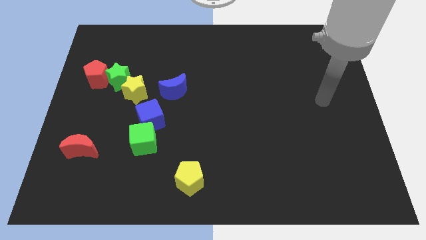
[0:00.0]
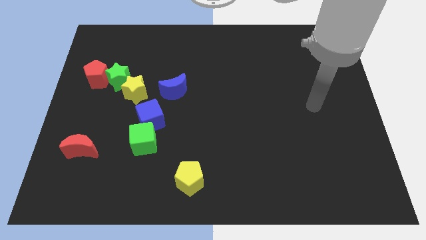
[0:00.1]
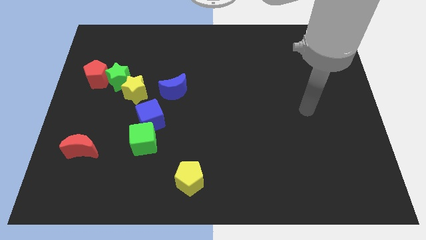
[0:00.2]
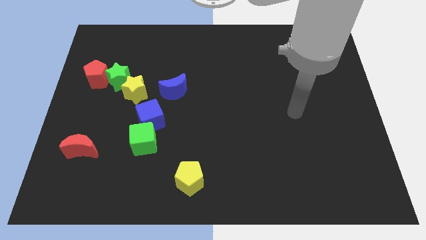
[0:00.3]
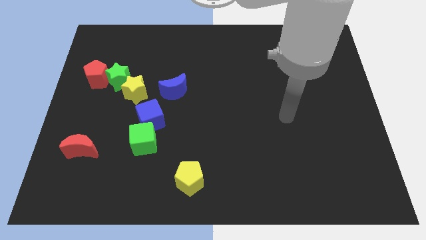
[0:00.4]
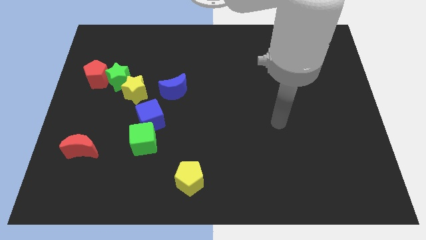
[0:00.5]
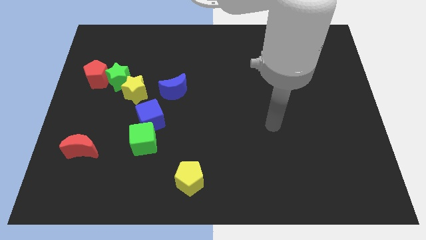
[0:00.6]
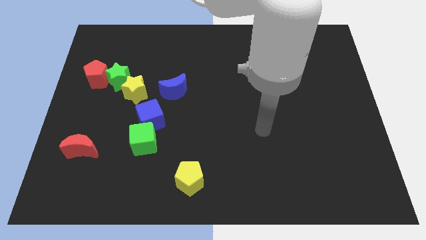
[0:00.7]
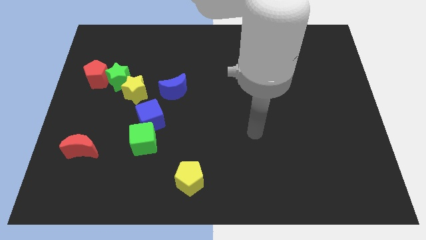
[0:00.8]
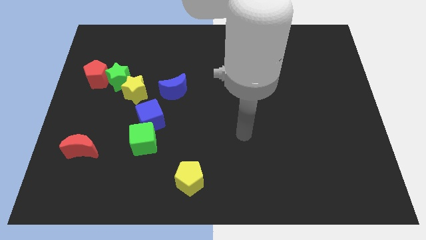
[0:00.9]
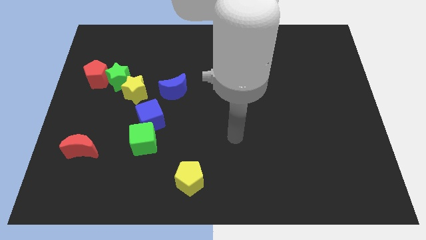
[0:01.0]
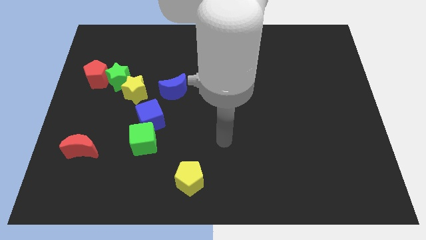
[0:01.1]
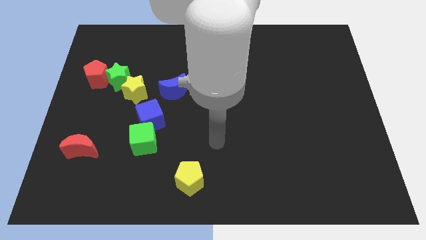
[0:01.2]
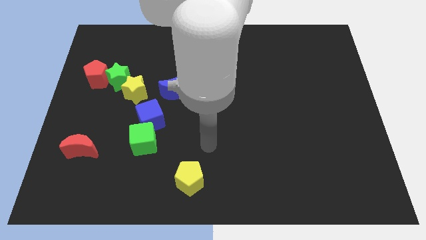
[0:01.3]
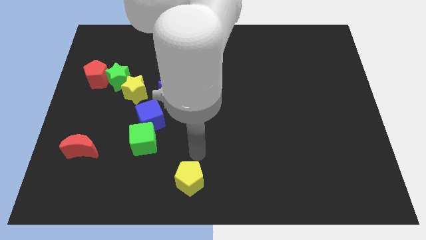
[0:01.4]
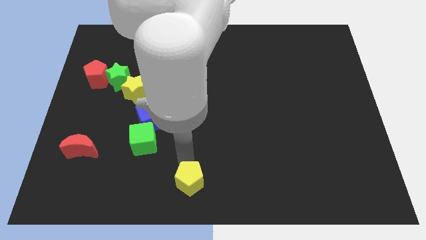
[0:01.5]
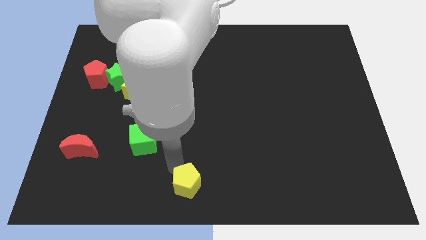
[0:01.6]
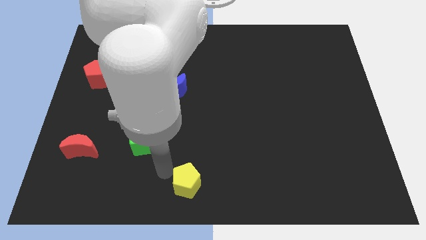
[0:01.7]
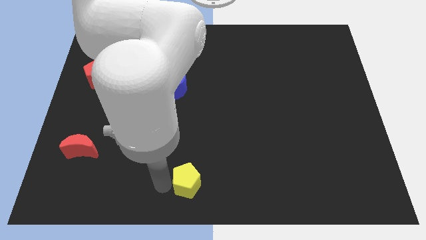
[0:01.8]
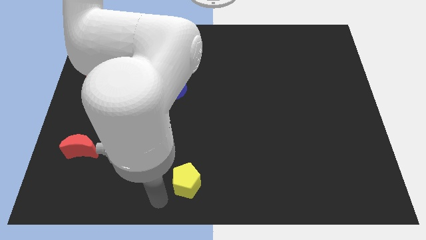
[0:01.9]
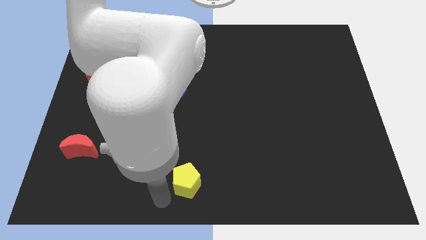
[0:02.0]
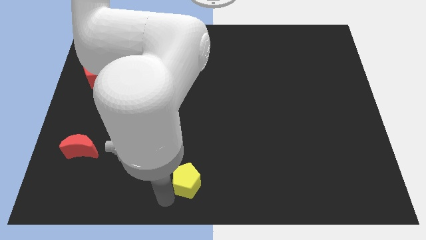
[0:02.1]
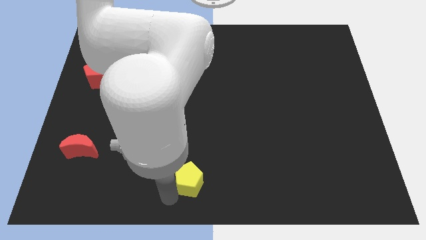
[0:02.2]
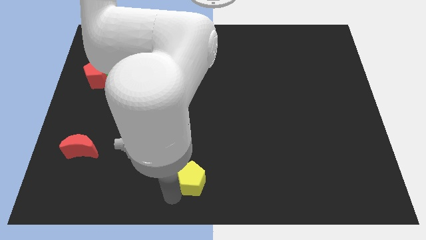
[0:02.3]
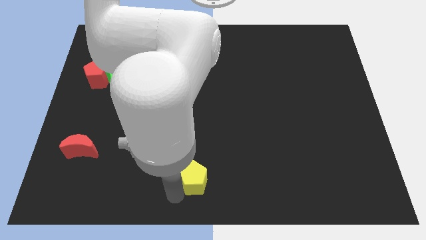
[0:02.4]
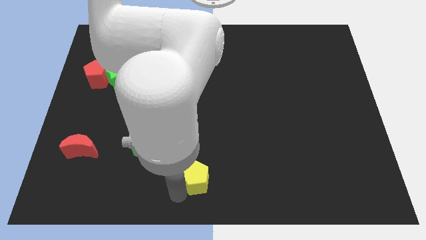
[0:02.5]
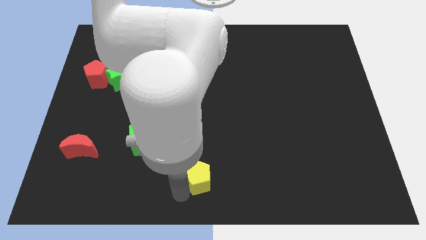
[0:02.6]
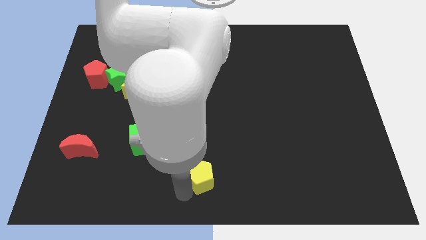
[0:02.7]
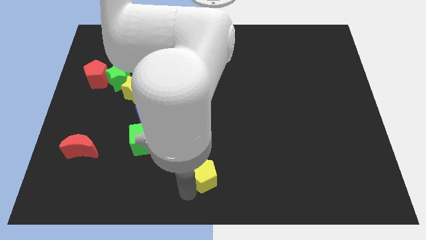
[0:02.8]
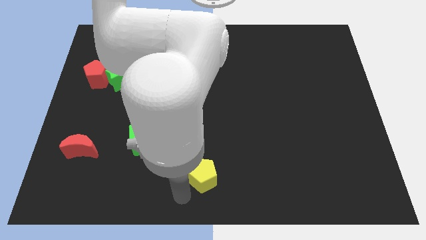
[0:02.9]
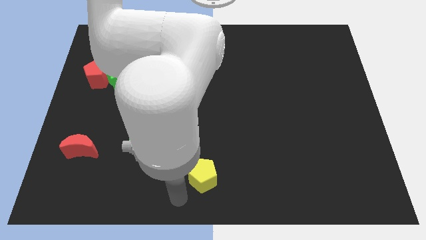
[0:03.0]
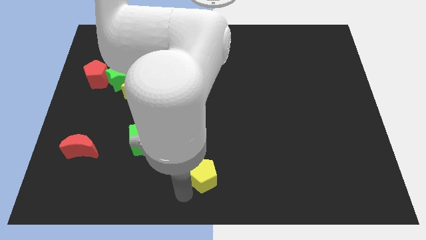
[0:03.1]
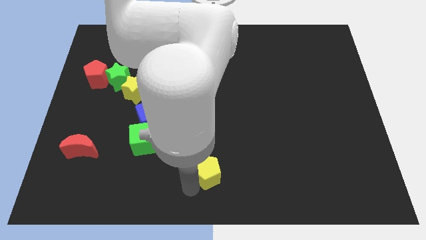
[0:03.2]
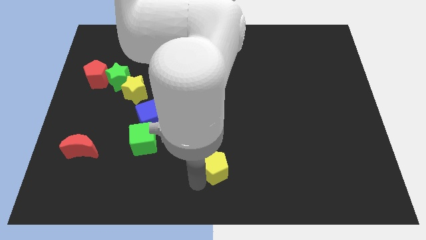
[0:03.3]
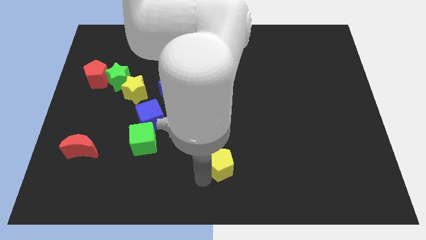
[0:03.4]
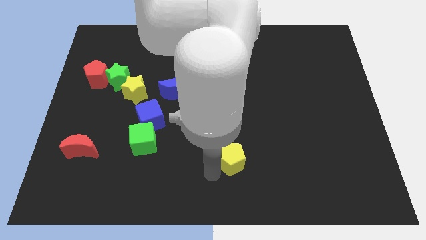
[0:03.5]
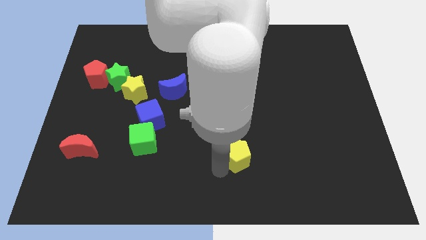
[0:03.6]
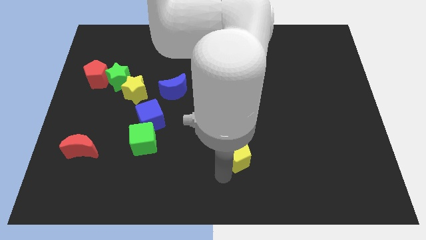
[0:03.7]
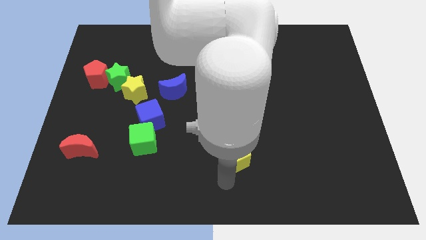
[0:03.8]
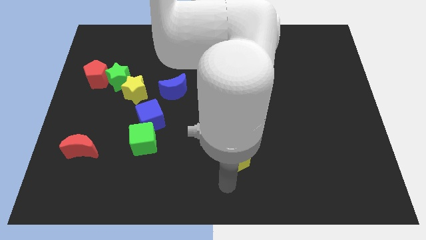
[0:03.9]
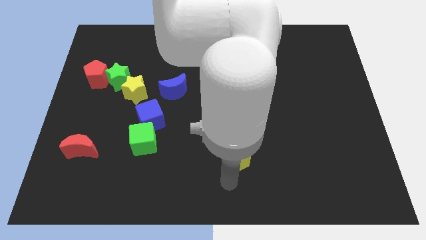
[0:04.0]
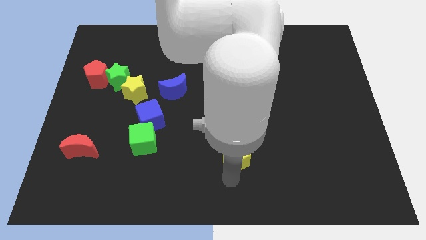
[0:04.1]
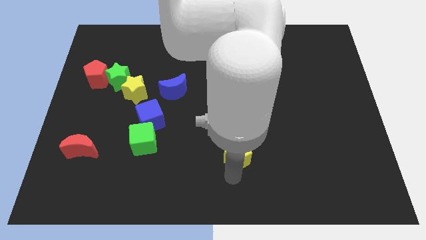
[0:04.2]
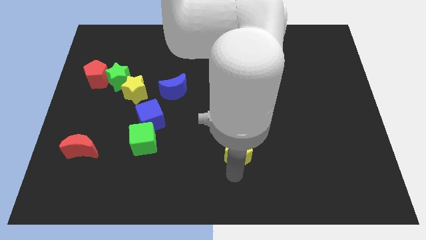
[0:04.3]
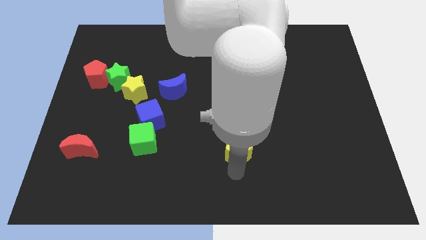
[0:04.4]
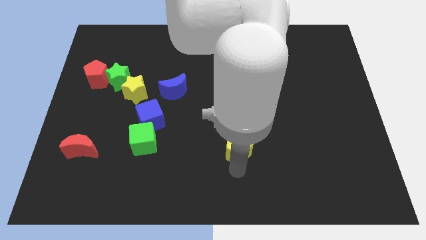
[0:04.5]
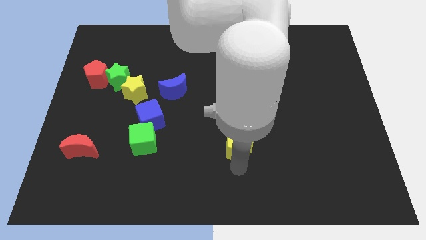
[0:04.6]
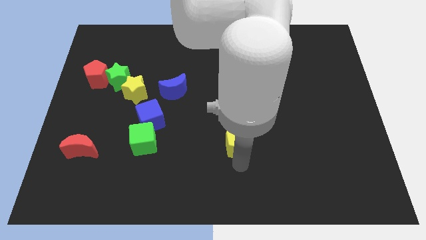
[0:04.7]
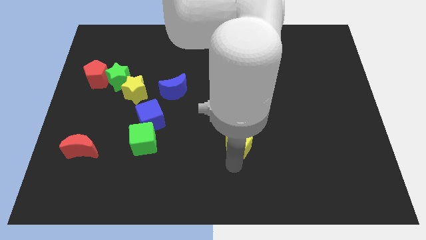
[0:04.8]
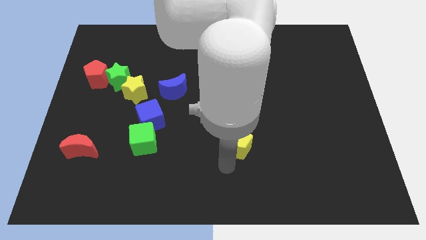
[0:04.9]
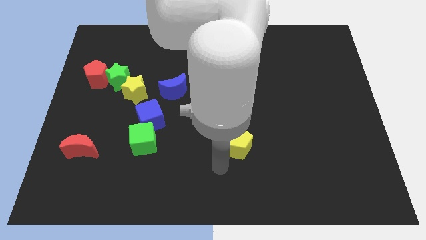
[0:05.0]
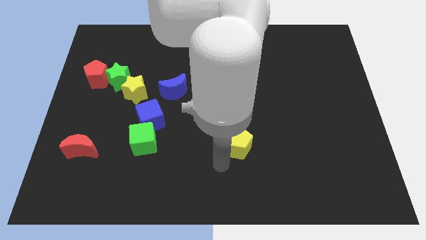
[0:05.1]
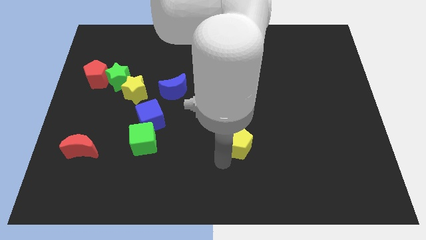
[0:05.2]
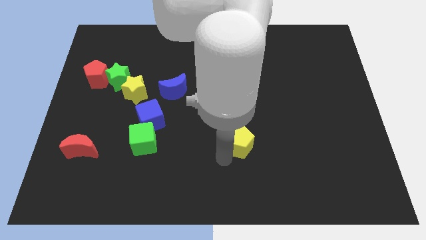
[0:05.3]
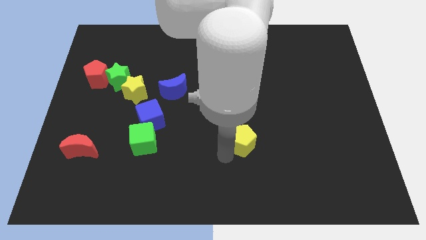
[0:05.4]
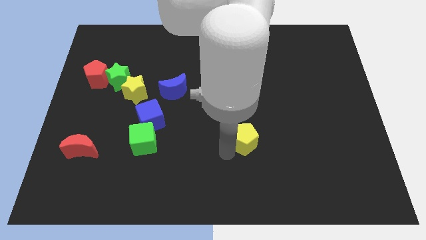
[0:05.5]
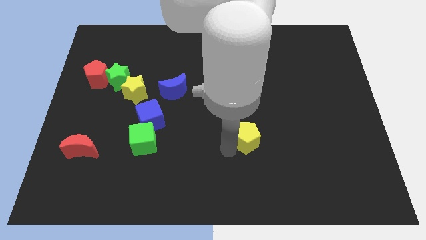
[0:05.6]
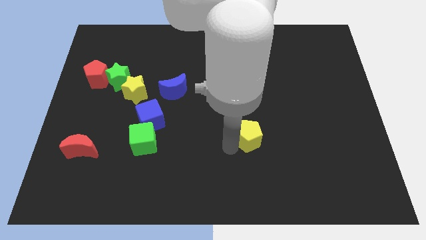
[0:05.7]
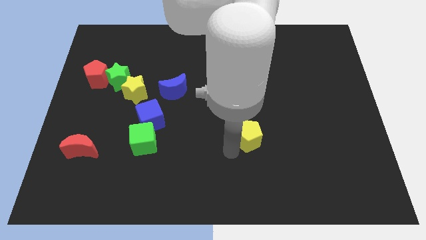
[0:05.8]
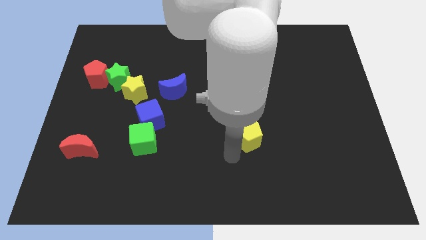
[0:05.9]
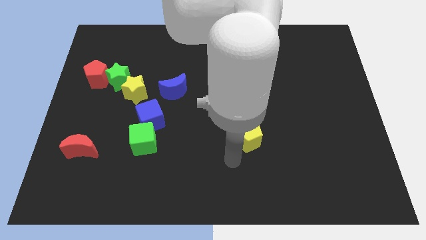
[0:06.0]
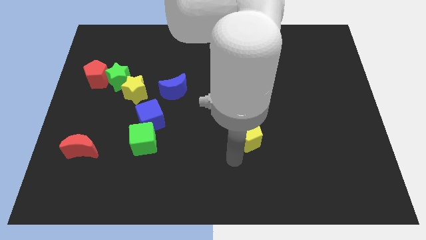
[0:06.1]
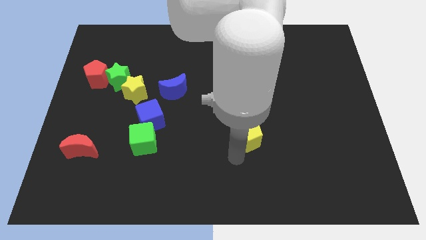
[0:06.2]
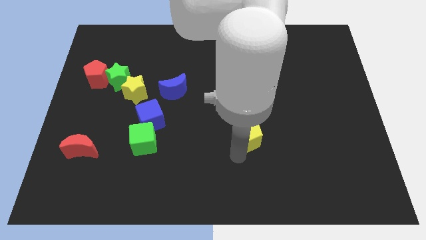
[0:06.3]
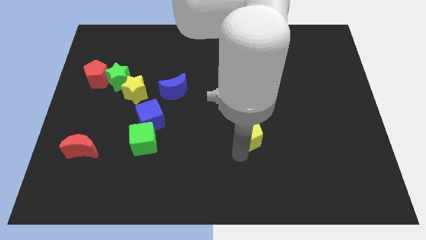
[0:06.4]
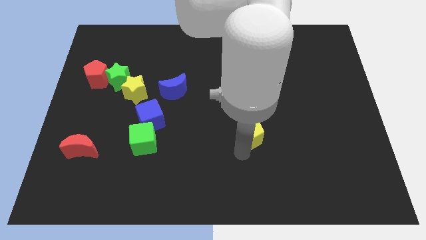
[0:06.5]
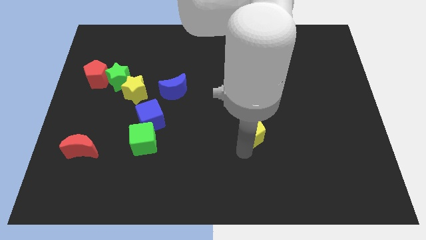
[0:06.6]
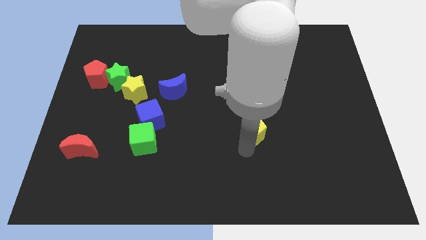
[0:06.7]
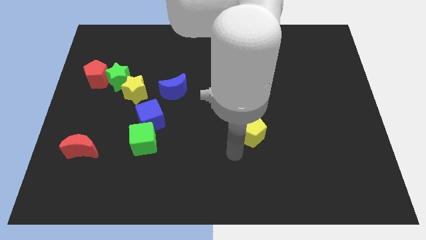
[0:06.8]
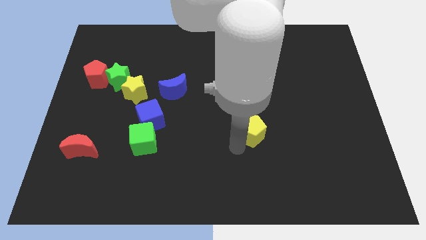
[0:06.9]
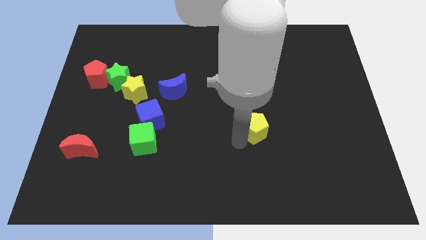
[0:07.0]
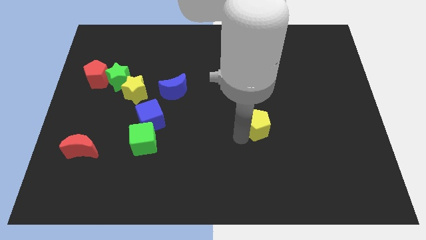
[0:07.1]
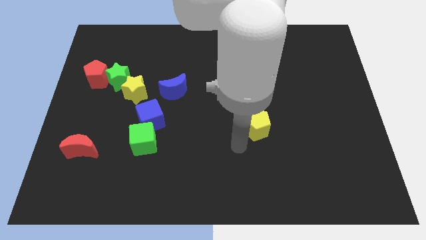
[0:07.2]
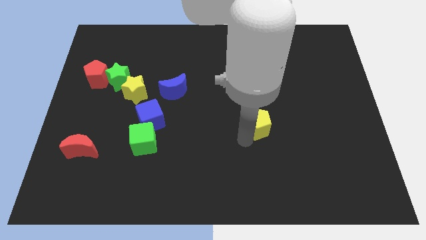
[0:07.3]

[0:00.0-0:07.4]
push the yellow pentagon upwards and to the right

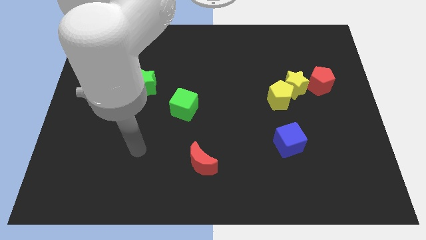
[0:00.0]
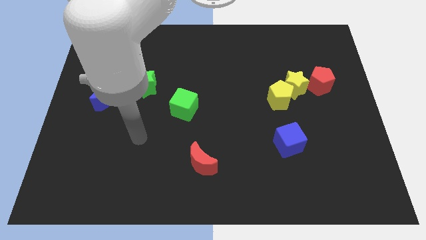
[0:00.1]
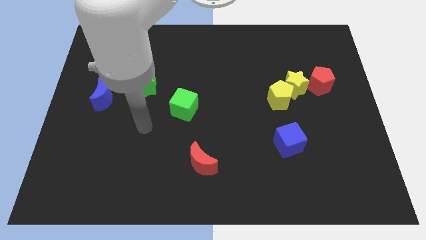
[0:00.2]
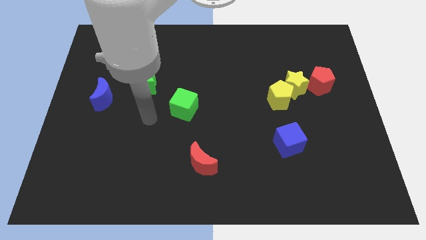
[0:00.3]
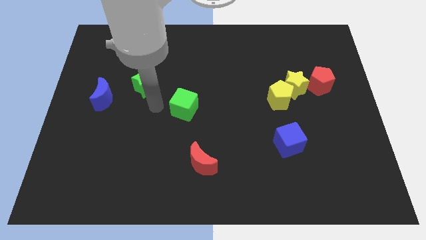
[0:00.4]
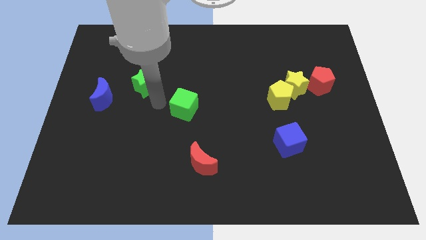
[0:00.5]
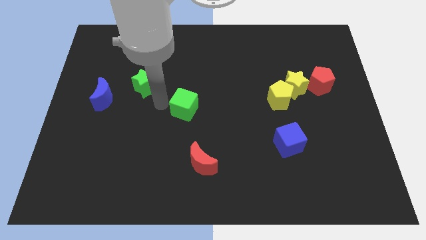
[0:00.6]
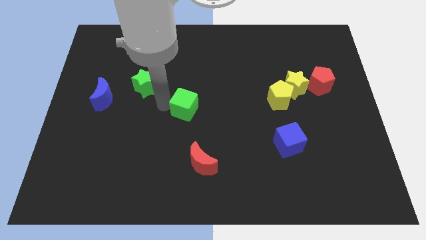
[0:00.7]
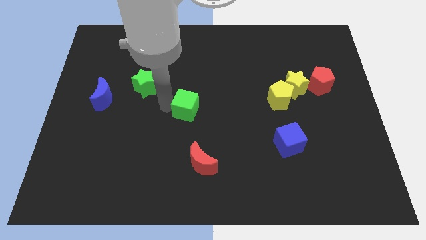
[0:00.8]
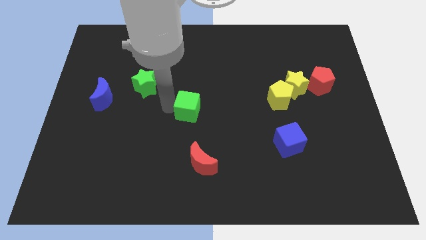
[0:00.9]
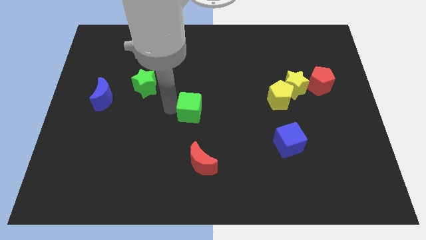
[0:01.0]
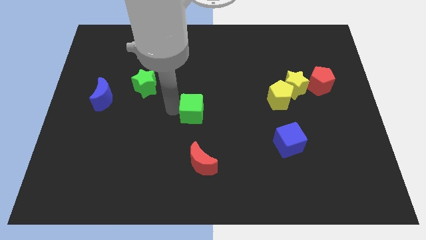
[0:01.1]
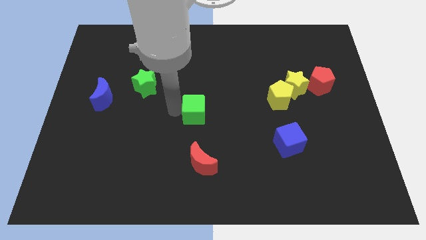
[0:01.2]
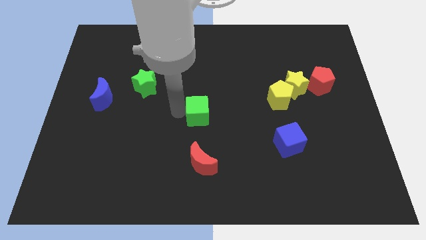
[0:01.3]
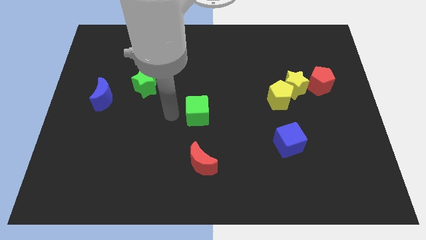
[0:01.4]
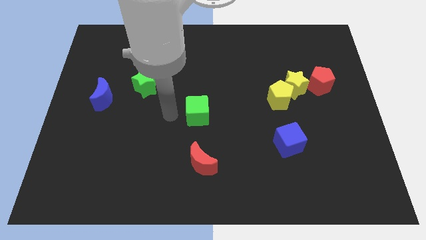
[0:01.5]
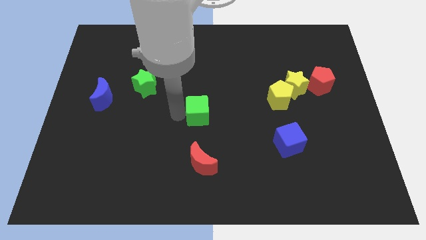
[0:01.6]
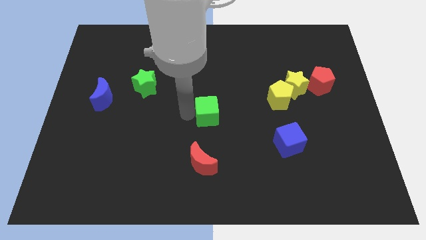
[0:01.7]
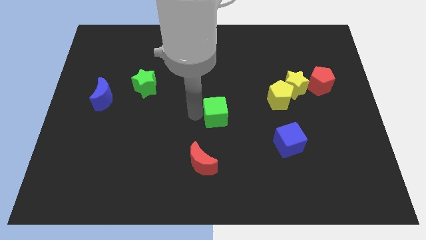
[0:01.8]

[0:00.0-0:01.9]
slightly push the green cube to the right
